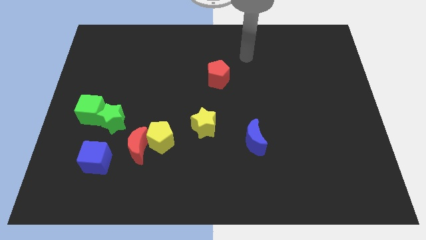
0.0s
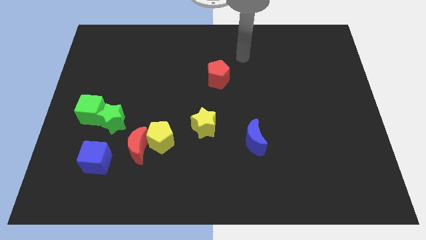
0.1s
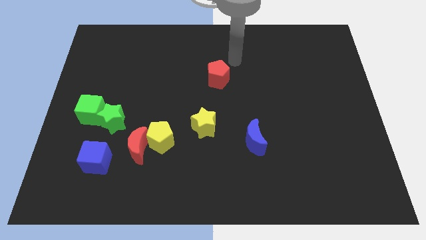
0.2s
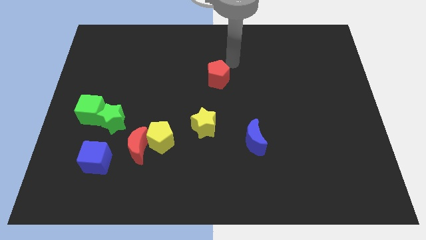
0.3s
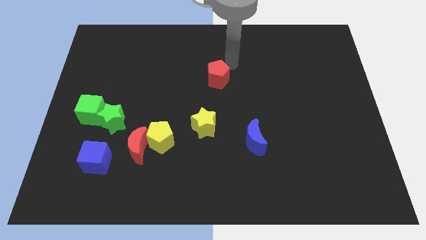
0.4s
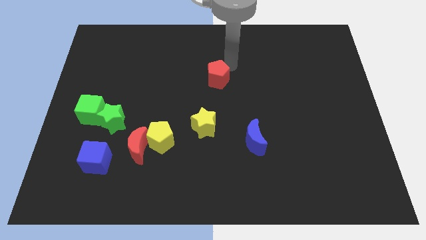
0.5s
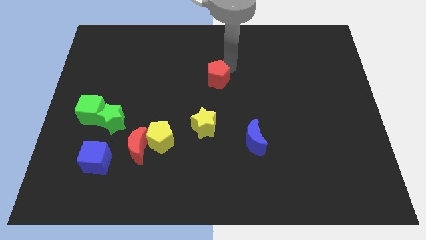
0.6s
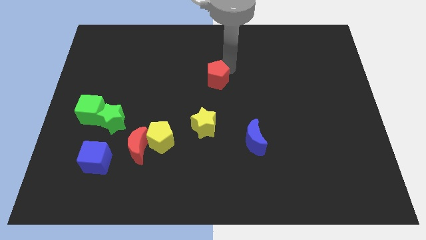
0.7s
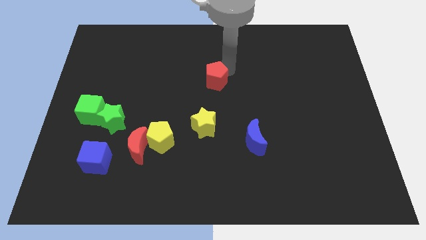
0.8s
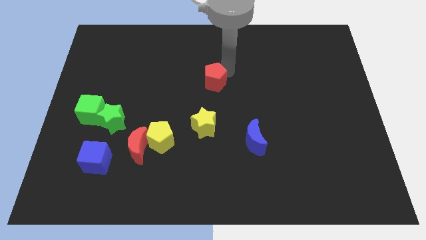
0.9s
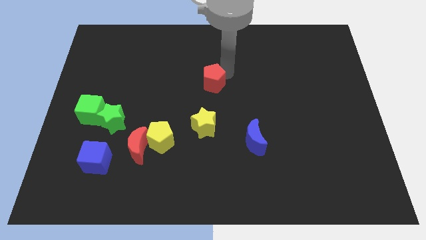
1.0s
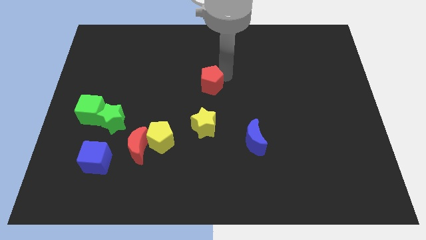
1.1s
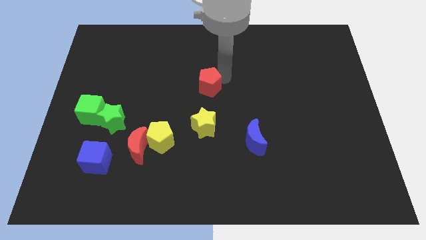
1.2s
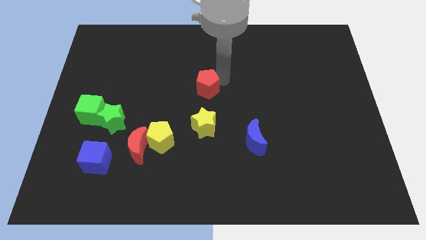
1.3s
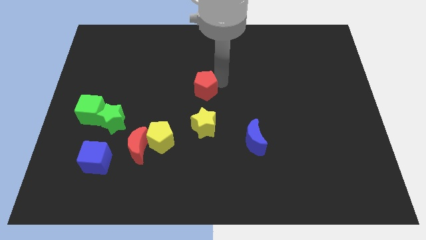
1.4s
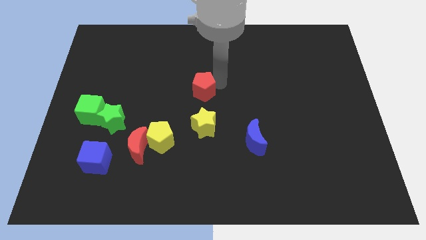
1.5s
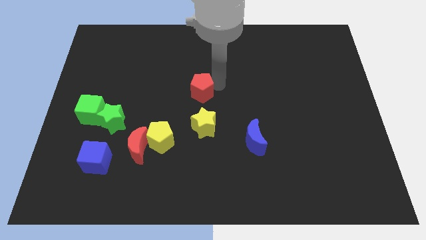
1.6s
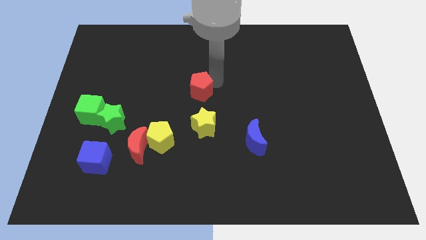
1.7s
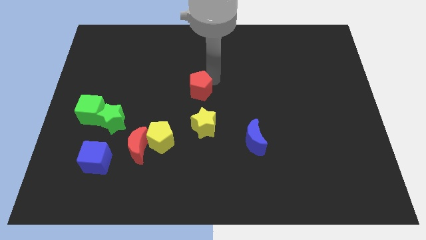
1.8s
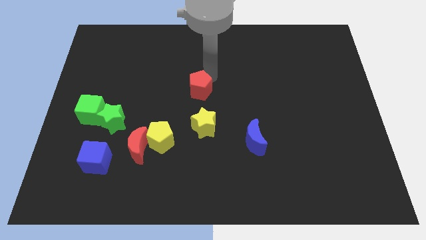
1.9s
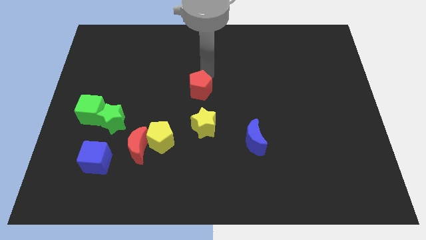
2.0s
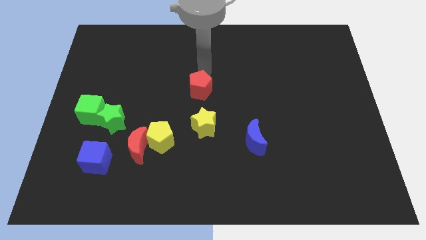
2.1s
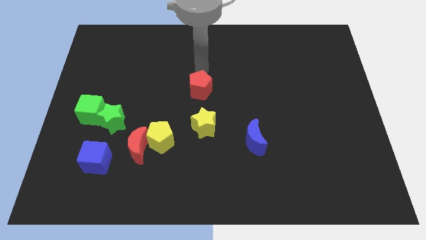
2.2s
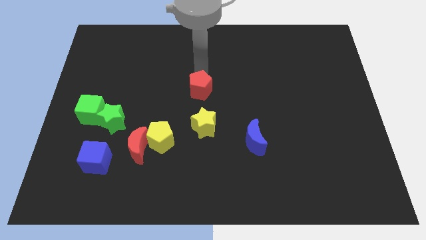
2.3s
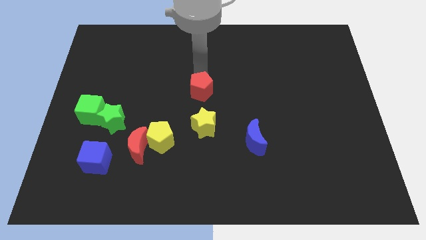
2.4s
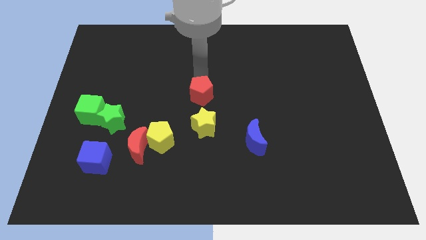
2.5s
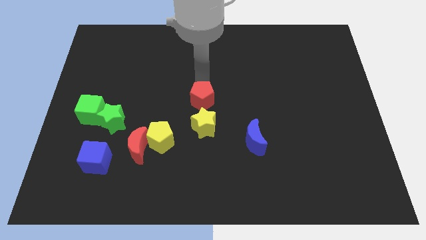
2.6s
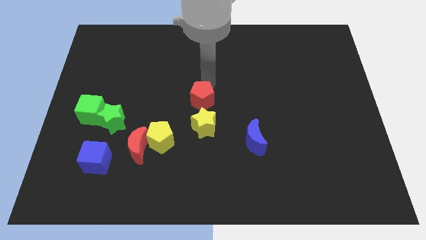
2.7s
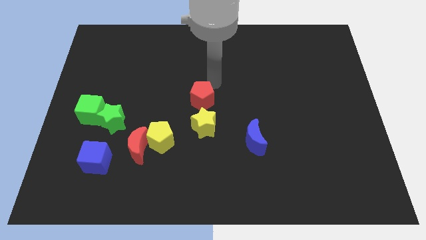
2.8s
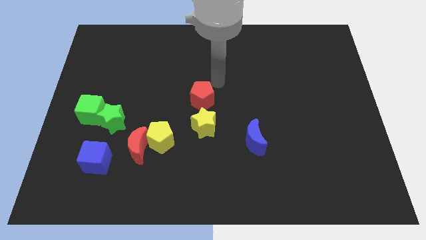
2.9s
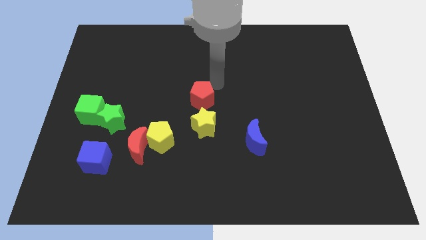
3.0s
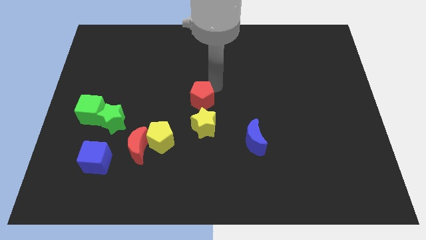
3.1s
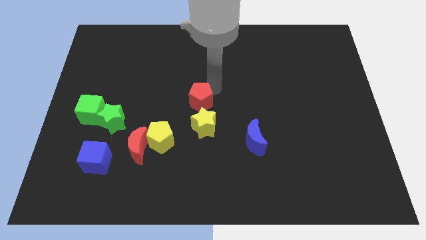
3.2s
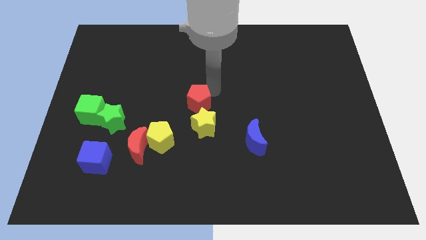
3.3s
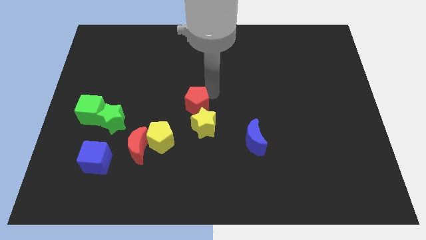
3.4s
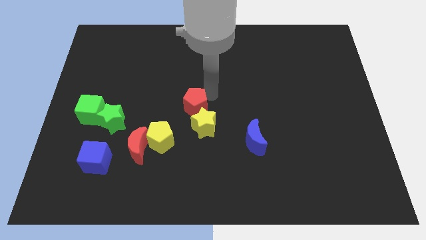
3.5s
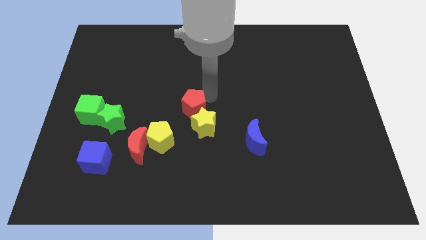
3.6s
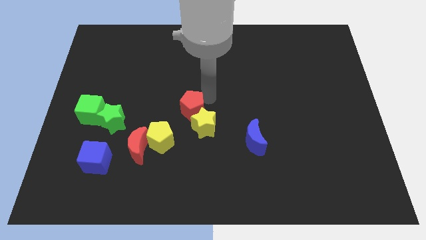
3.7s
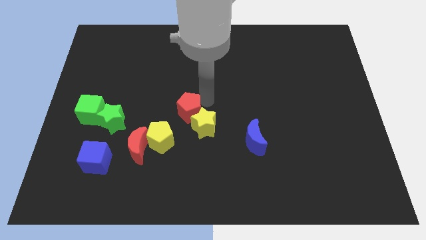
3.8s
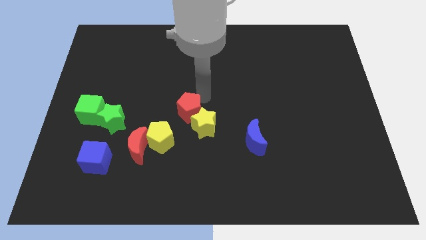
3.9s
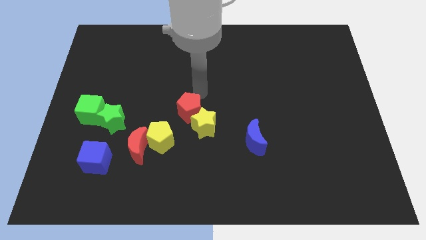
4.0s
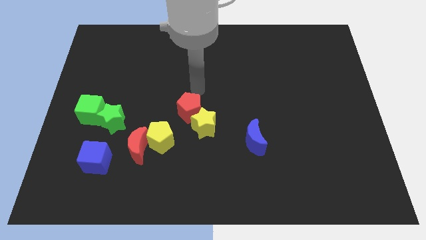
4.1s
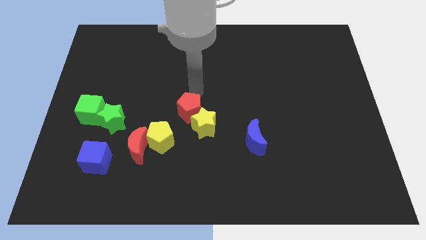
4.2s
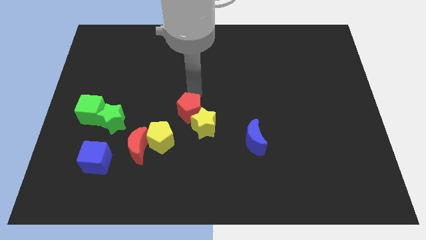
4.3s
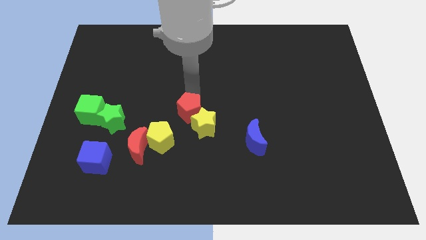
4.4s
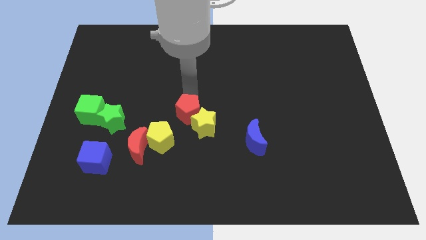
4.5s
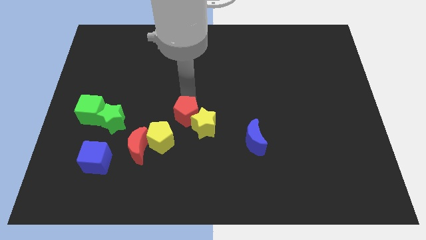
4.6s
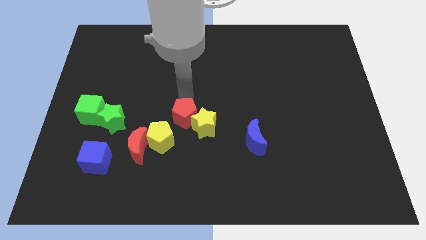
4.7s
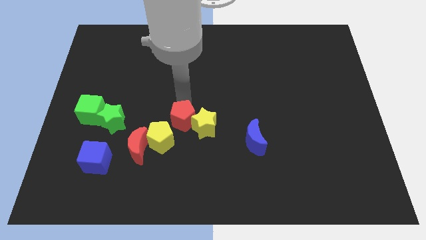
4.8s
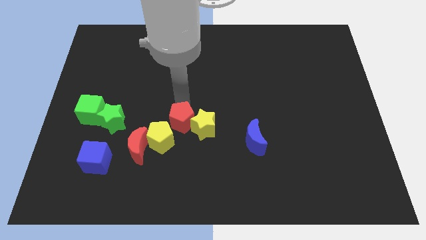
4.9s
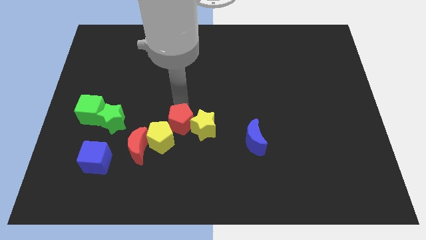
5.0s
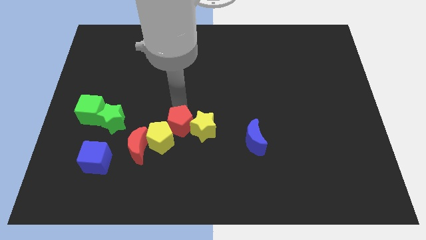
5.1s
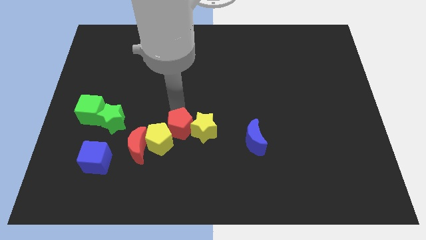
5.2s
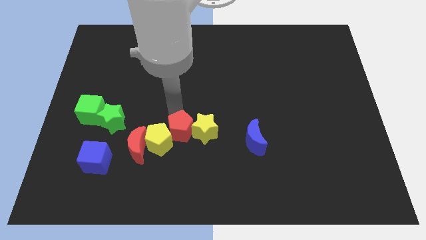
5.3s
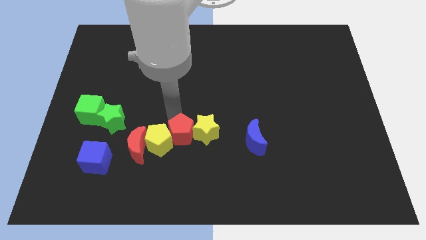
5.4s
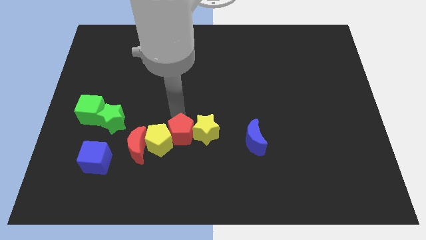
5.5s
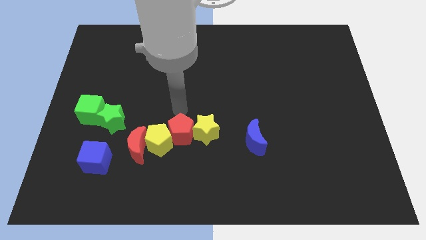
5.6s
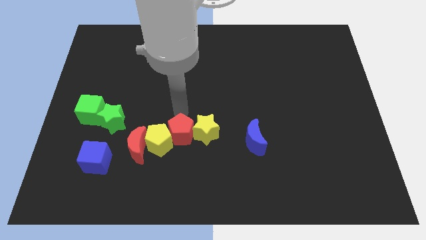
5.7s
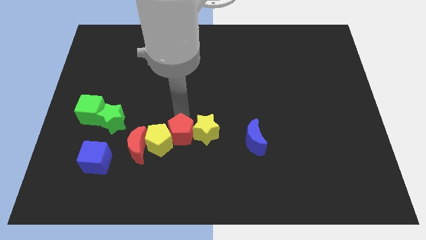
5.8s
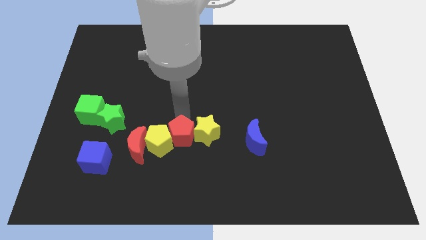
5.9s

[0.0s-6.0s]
move the red pentagon to the bottom right of the yellow pentagon
